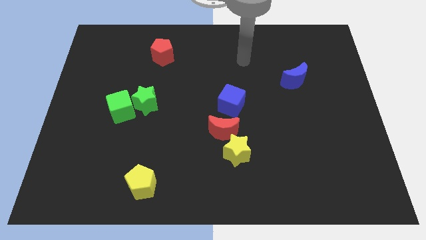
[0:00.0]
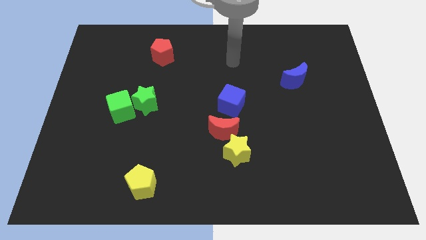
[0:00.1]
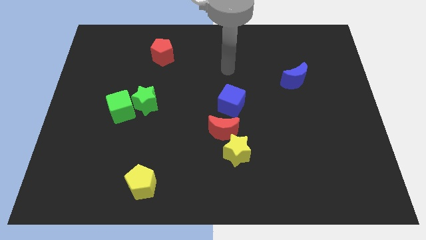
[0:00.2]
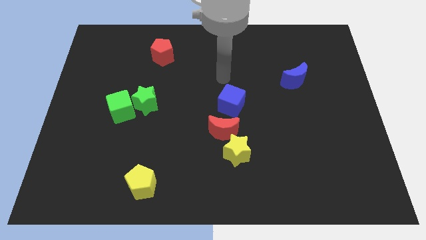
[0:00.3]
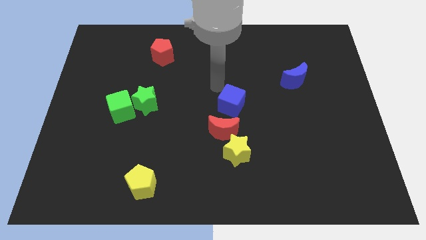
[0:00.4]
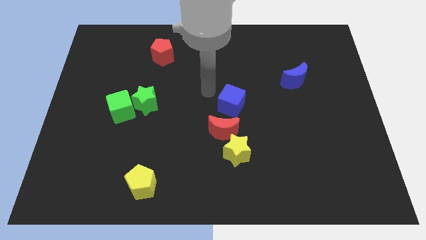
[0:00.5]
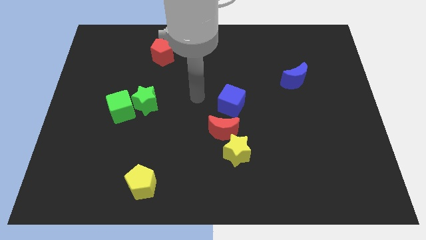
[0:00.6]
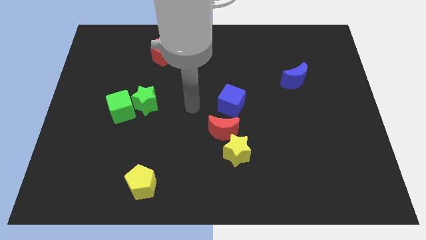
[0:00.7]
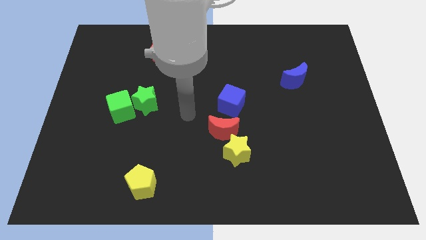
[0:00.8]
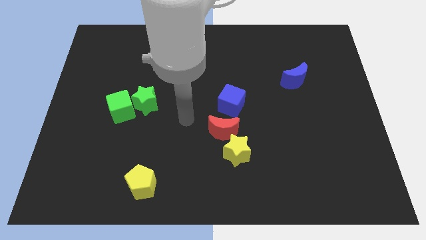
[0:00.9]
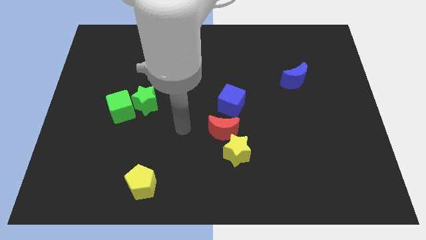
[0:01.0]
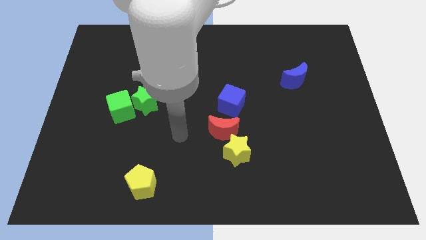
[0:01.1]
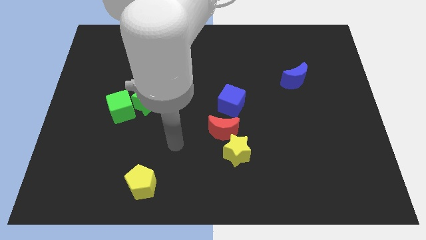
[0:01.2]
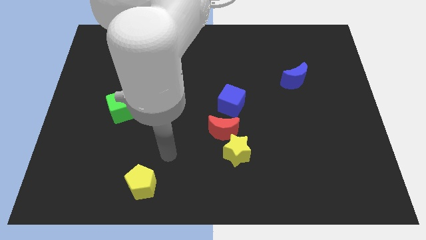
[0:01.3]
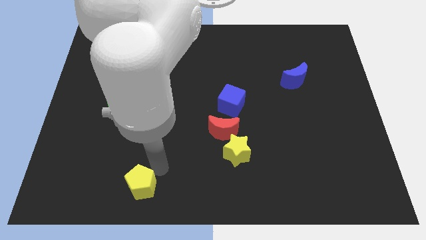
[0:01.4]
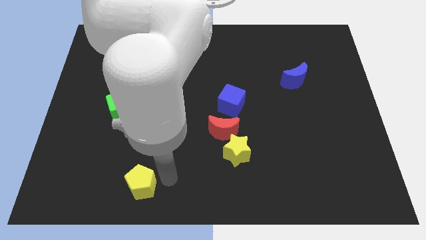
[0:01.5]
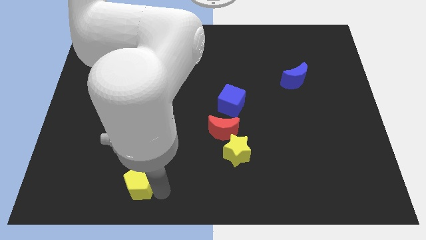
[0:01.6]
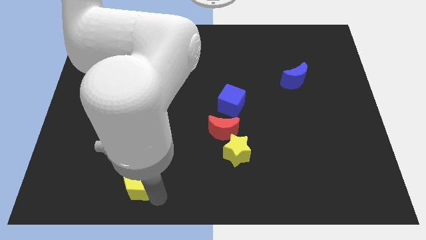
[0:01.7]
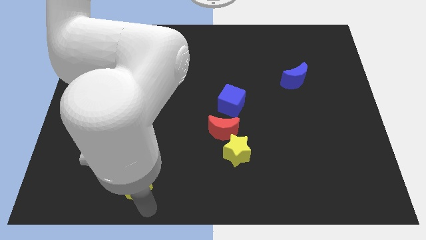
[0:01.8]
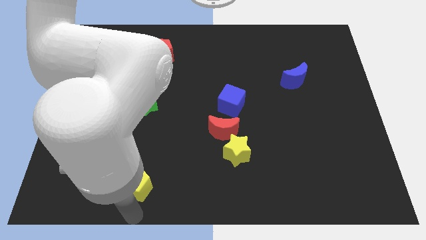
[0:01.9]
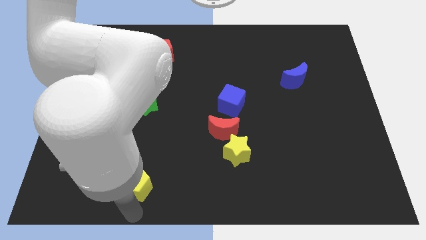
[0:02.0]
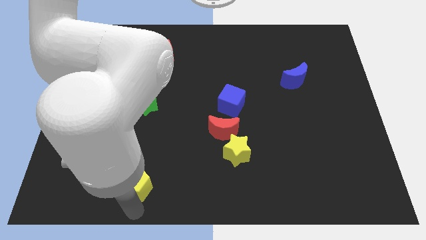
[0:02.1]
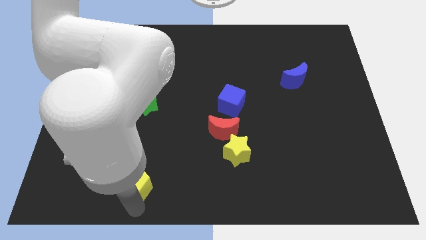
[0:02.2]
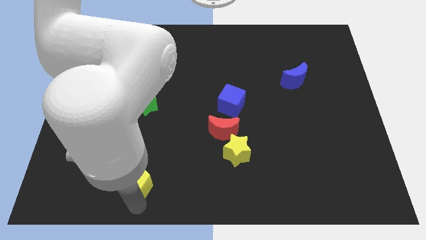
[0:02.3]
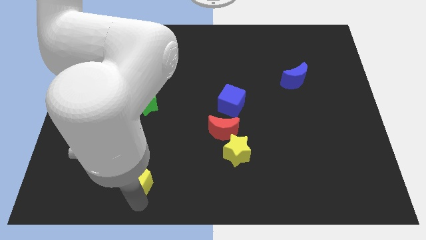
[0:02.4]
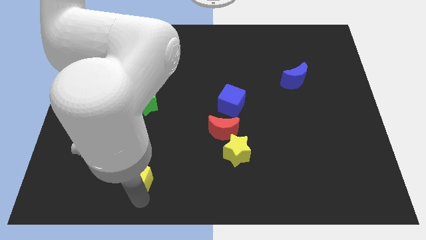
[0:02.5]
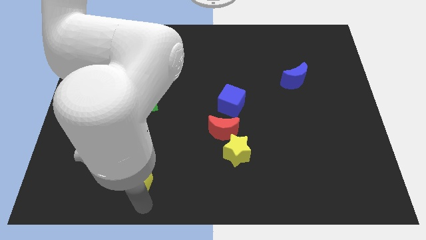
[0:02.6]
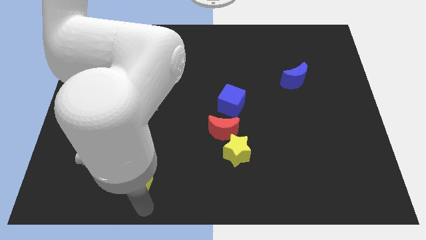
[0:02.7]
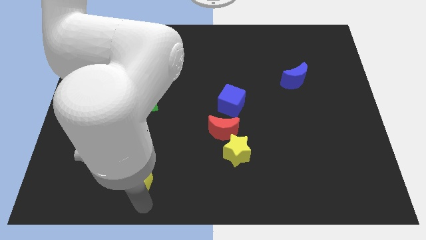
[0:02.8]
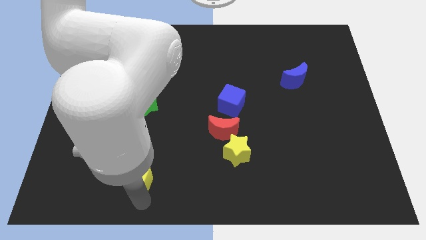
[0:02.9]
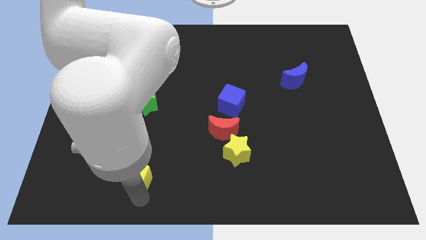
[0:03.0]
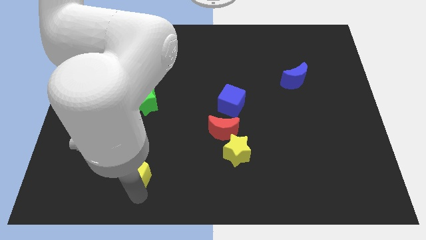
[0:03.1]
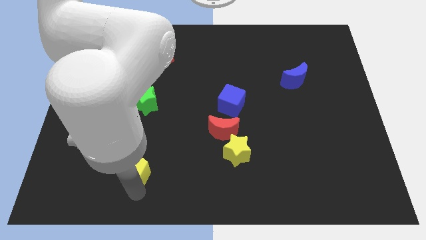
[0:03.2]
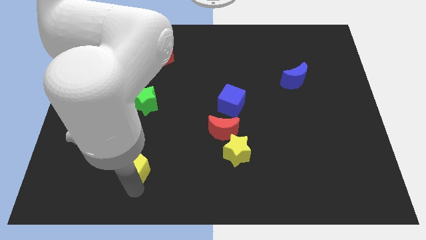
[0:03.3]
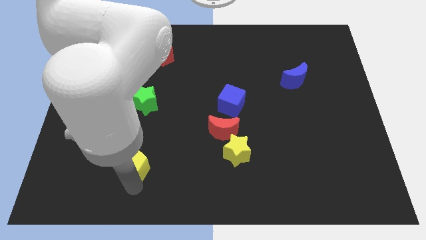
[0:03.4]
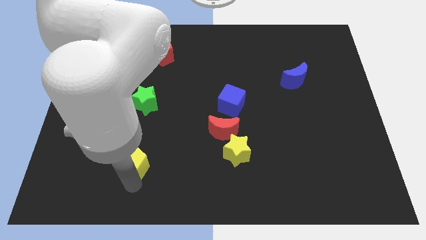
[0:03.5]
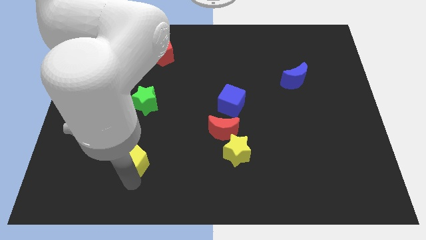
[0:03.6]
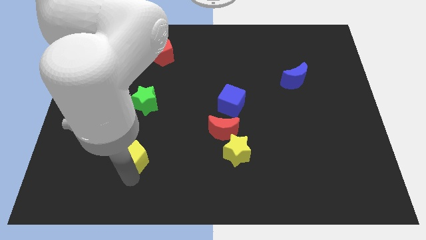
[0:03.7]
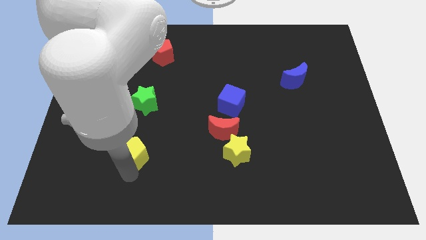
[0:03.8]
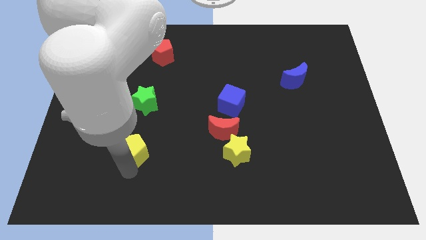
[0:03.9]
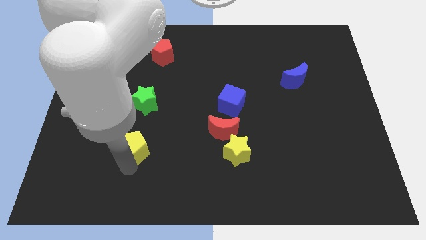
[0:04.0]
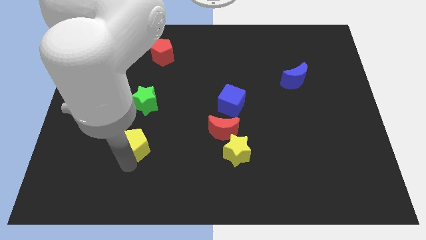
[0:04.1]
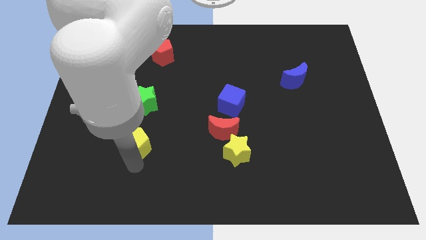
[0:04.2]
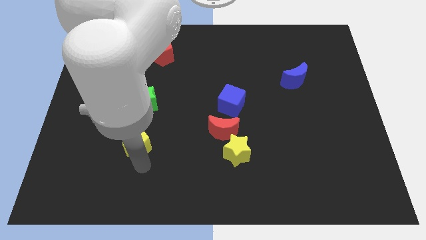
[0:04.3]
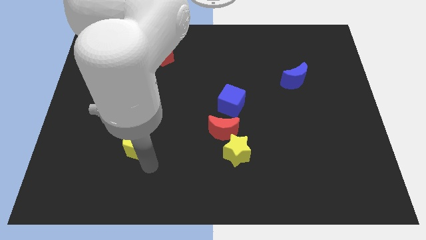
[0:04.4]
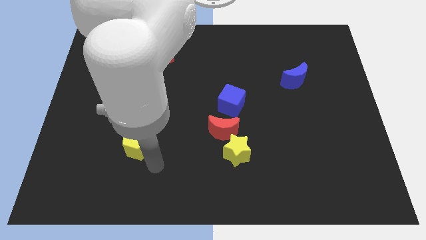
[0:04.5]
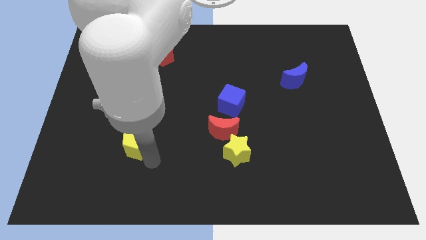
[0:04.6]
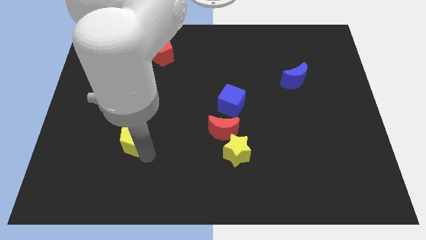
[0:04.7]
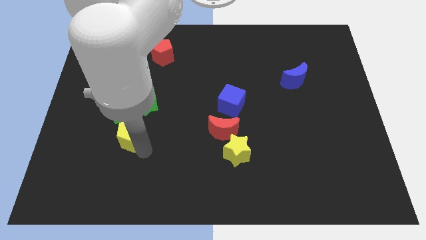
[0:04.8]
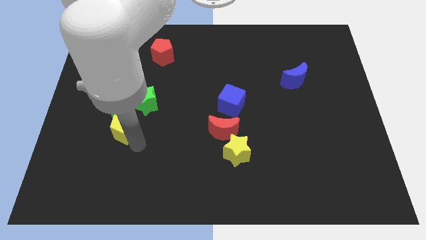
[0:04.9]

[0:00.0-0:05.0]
put the yellow pentagon close to the green cube

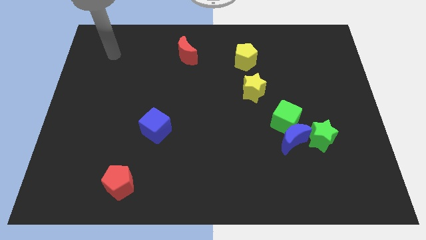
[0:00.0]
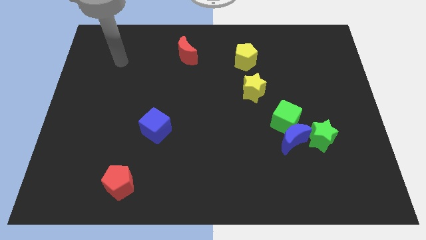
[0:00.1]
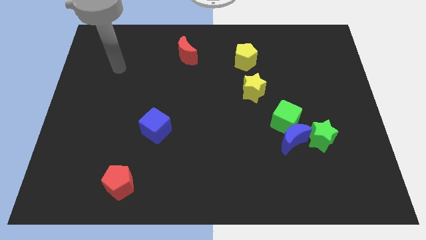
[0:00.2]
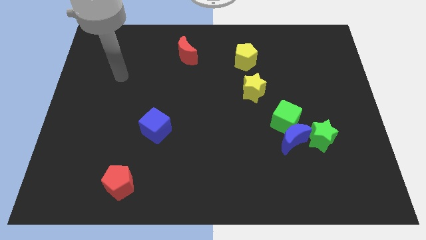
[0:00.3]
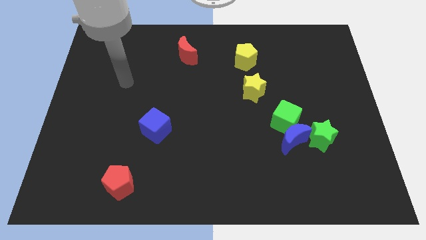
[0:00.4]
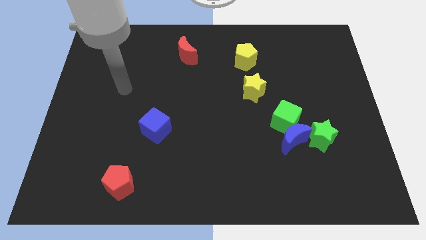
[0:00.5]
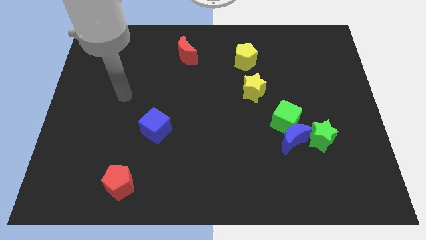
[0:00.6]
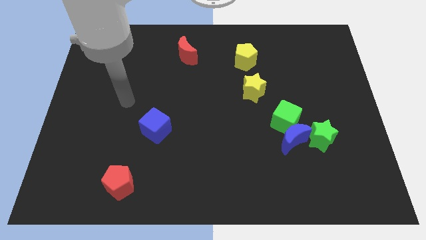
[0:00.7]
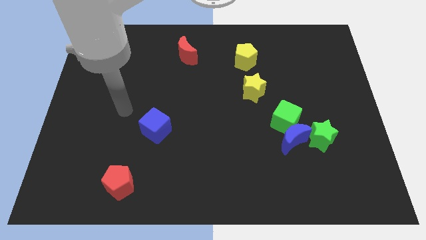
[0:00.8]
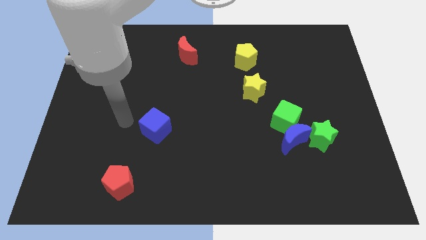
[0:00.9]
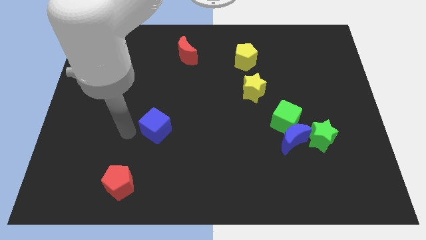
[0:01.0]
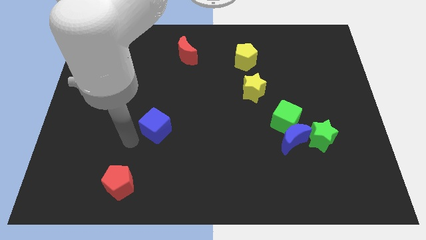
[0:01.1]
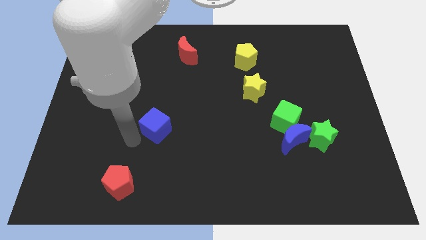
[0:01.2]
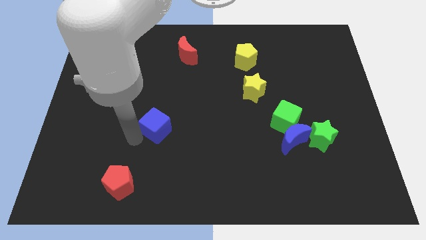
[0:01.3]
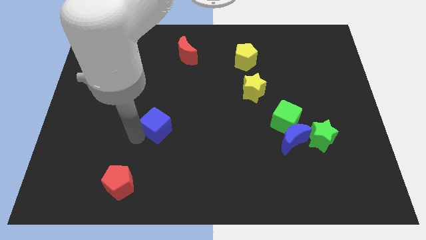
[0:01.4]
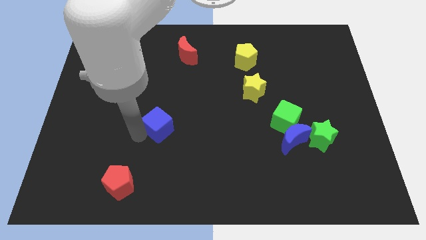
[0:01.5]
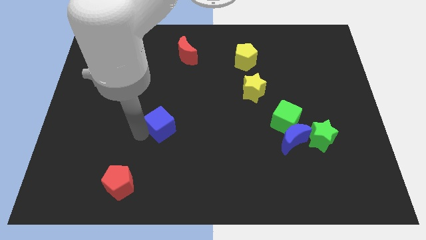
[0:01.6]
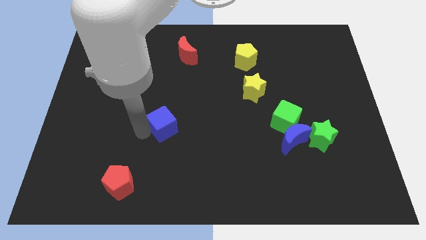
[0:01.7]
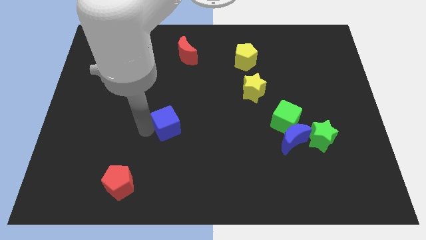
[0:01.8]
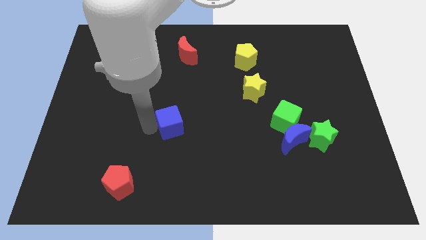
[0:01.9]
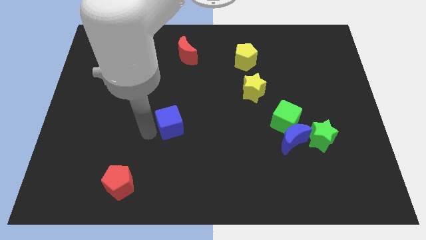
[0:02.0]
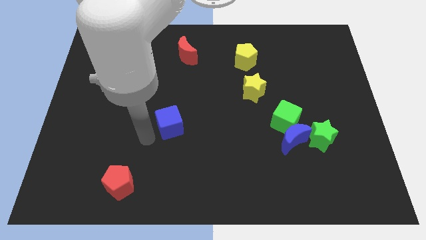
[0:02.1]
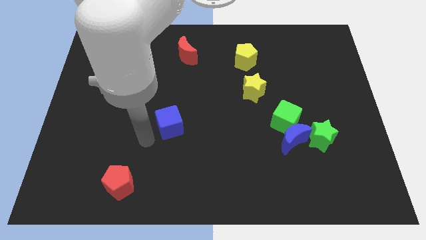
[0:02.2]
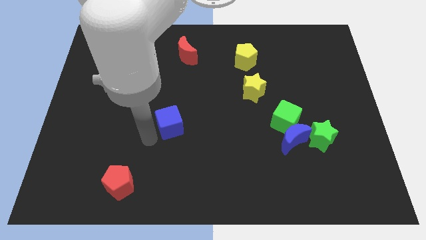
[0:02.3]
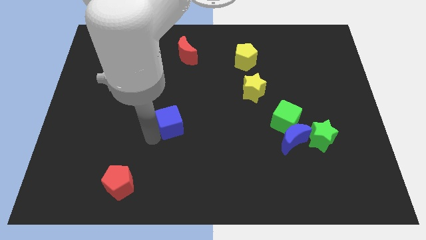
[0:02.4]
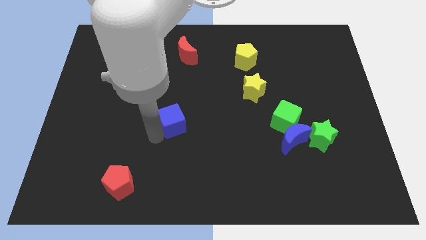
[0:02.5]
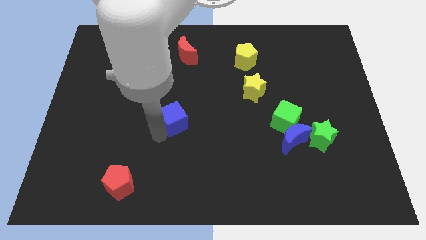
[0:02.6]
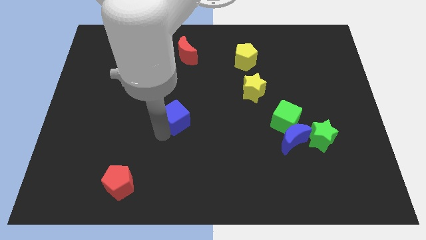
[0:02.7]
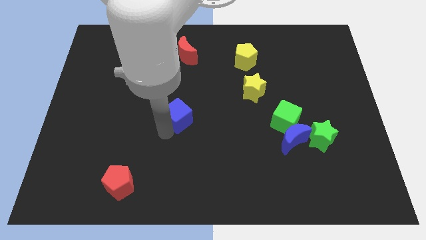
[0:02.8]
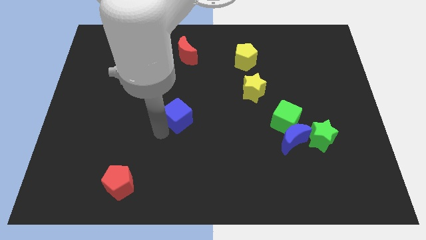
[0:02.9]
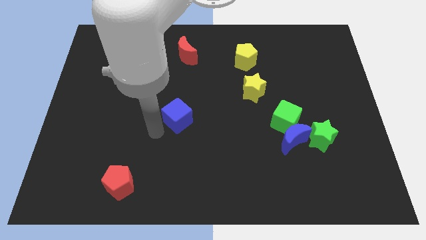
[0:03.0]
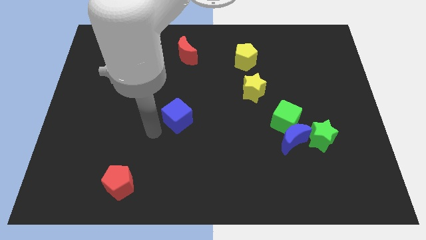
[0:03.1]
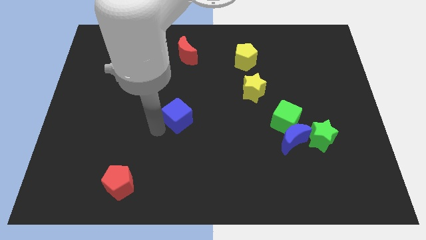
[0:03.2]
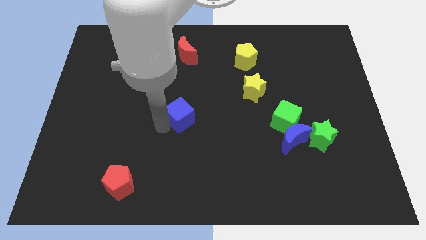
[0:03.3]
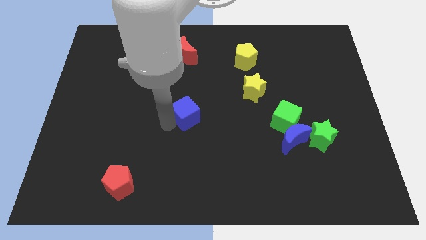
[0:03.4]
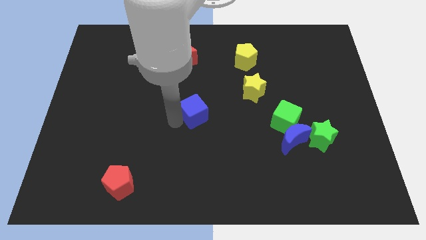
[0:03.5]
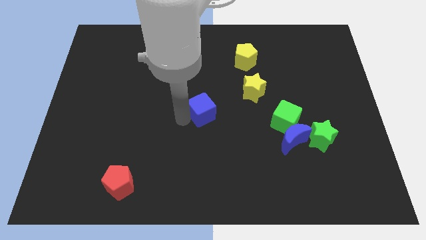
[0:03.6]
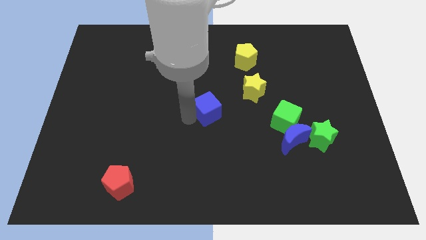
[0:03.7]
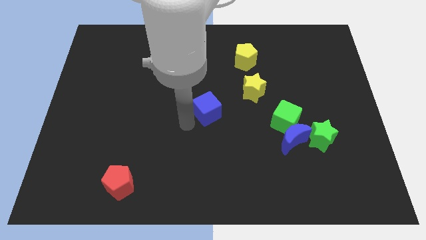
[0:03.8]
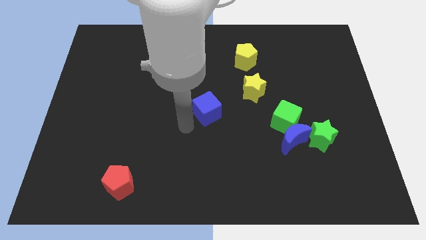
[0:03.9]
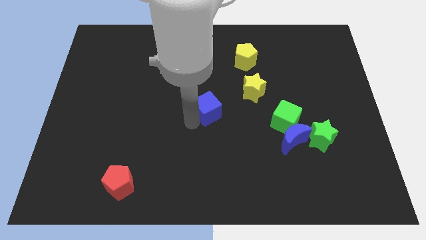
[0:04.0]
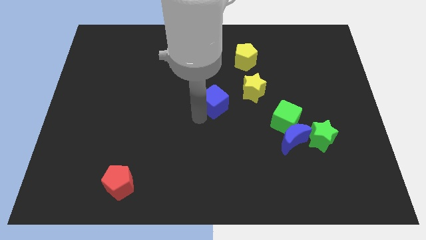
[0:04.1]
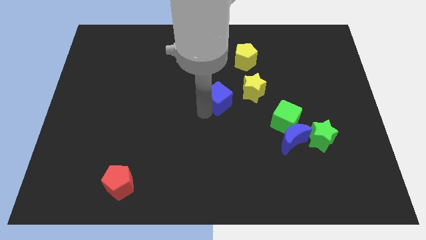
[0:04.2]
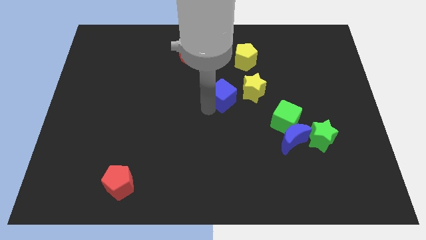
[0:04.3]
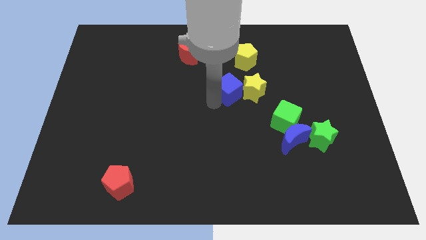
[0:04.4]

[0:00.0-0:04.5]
slide the blue cube to the yellow star
